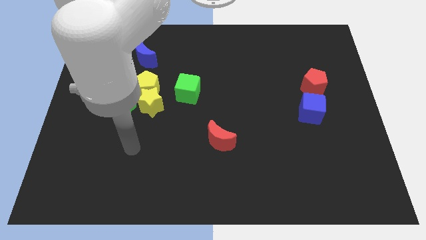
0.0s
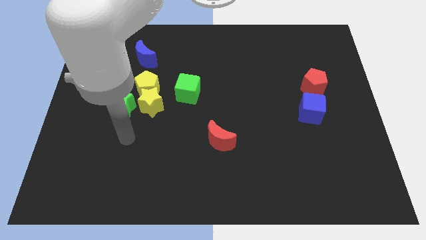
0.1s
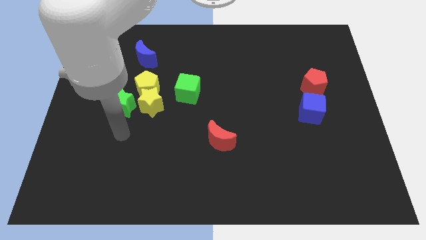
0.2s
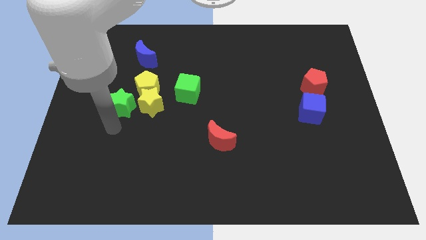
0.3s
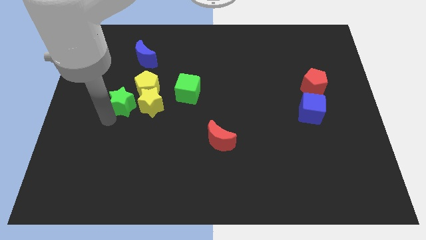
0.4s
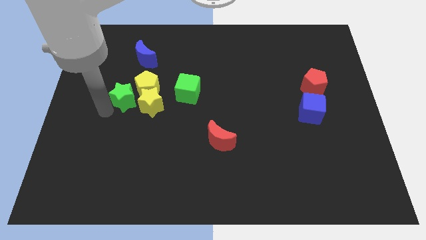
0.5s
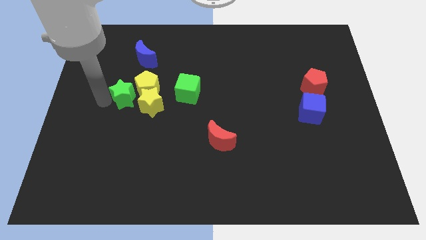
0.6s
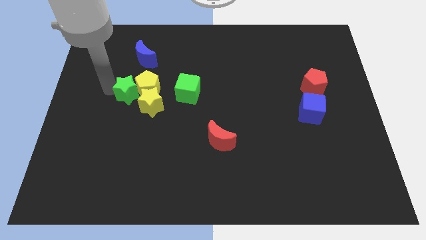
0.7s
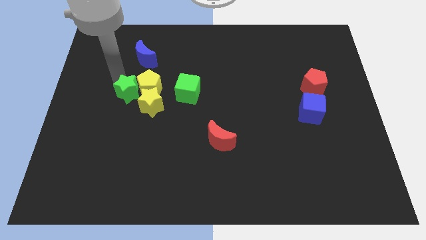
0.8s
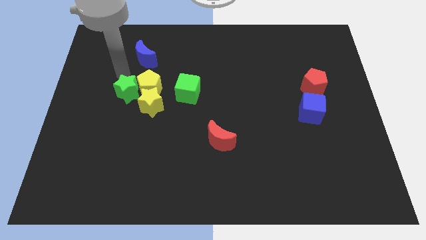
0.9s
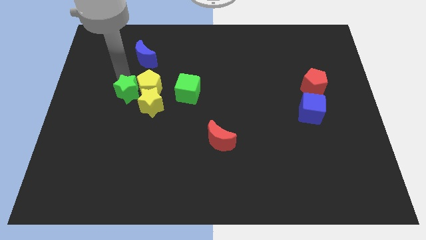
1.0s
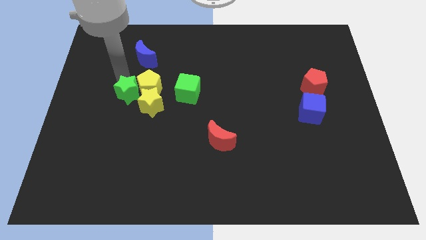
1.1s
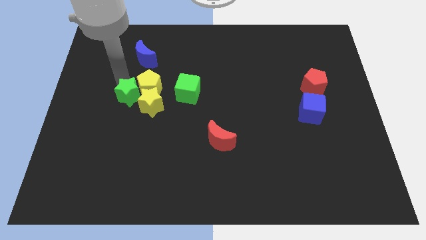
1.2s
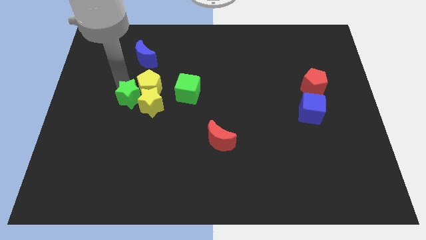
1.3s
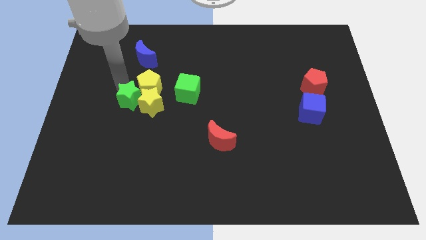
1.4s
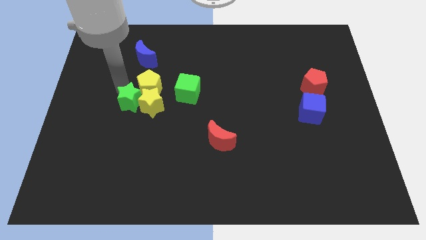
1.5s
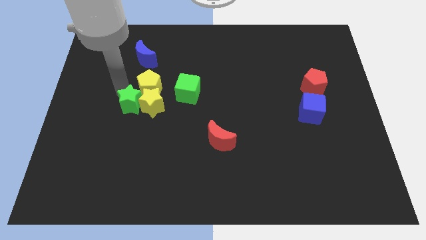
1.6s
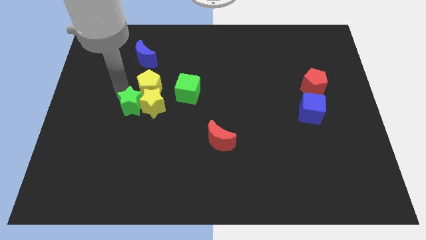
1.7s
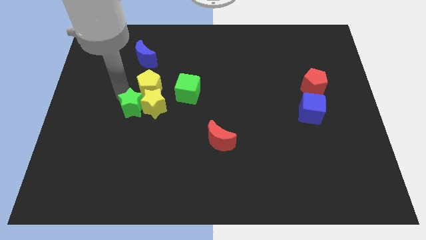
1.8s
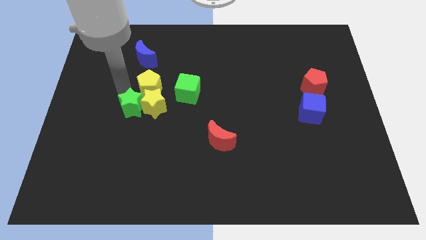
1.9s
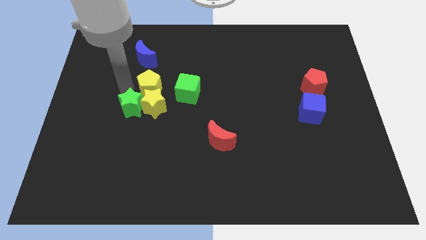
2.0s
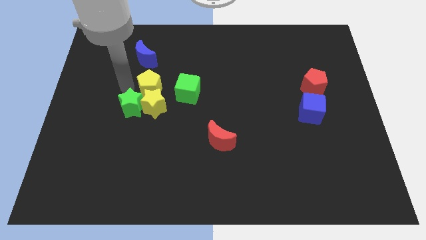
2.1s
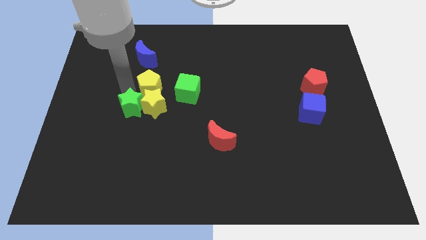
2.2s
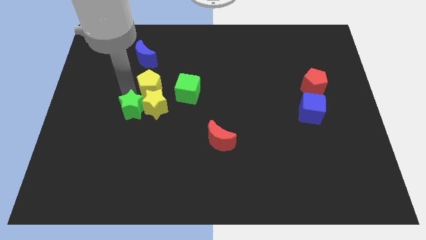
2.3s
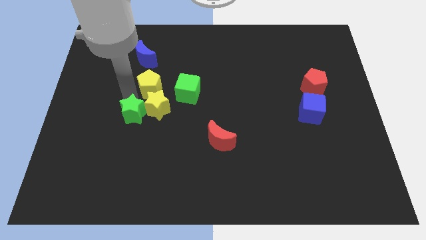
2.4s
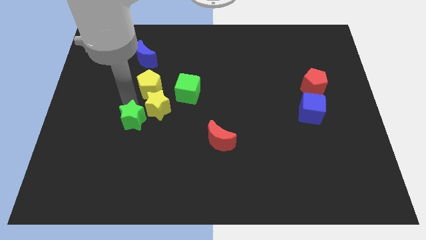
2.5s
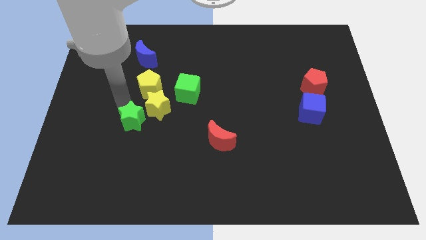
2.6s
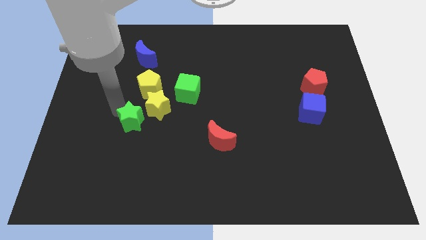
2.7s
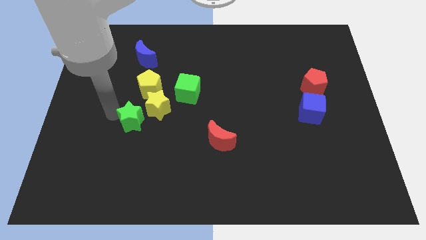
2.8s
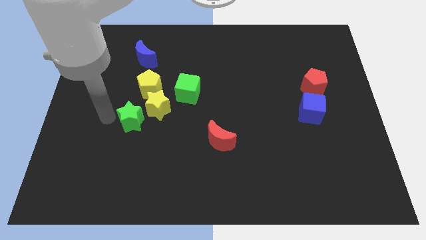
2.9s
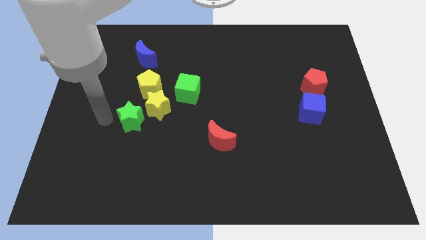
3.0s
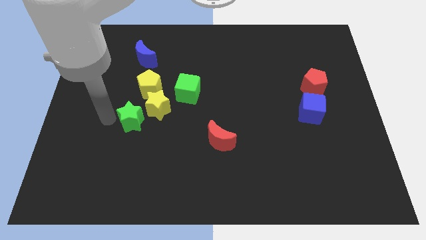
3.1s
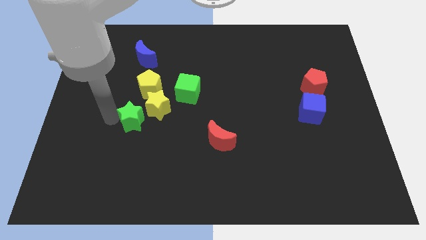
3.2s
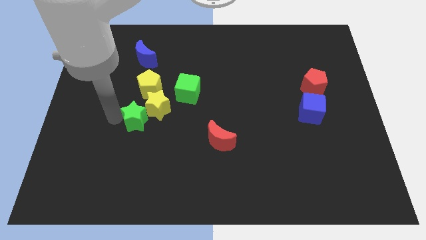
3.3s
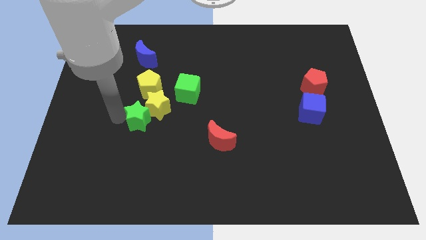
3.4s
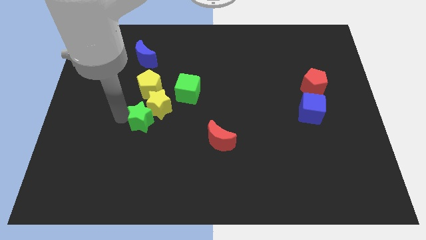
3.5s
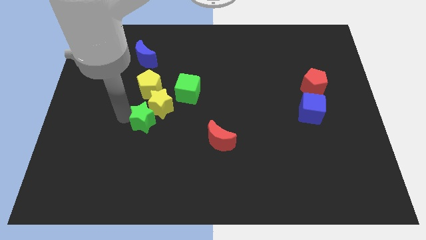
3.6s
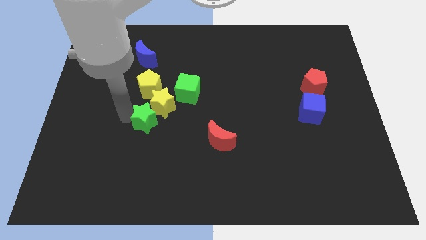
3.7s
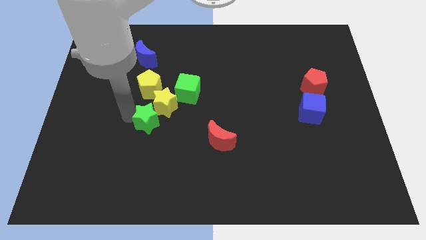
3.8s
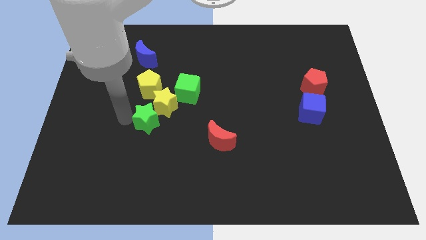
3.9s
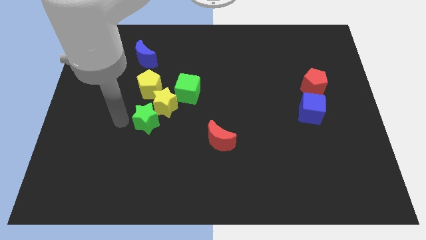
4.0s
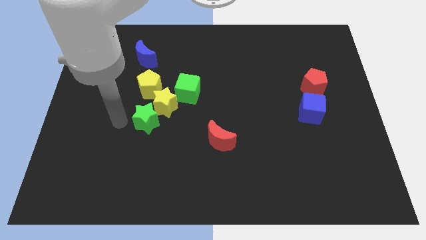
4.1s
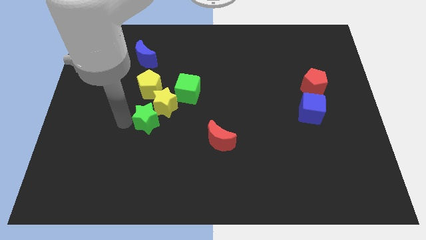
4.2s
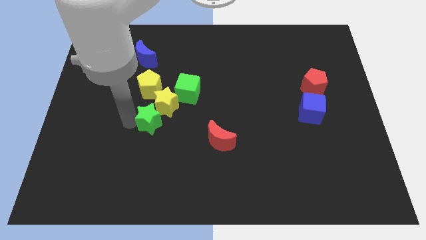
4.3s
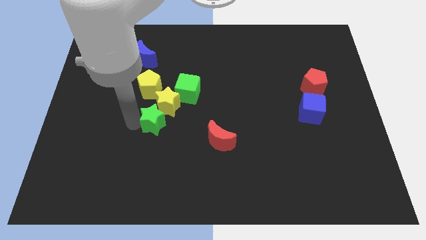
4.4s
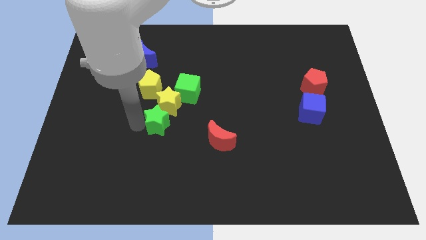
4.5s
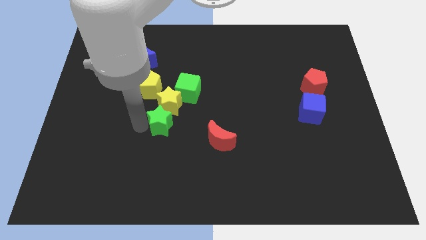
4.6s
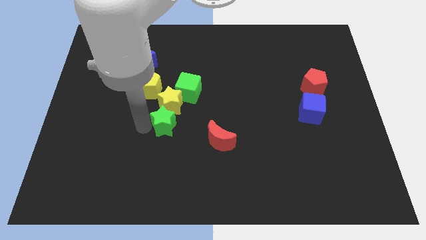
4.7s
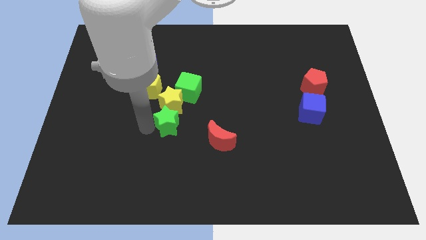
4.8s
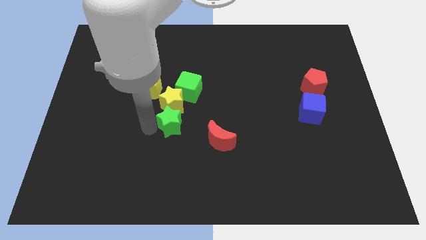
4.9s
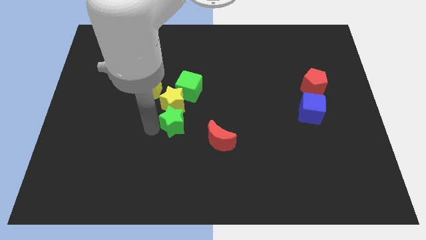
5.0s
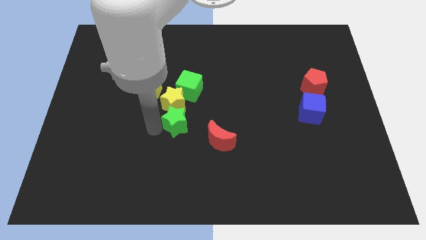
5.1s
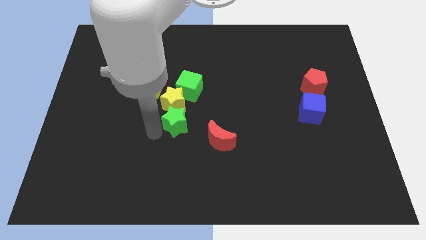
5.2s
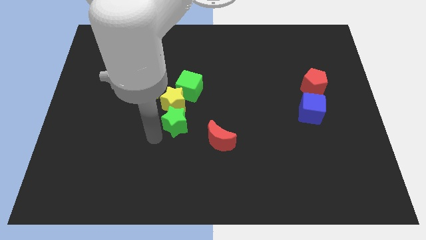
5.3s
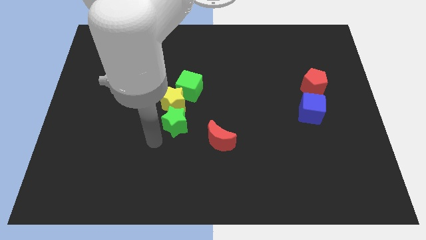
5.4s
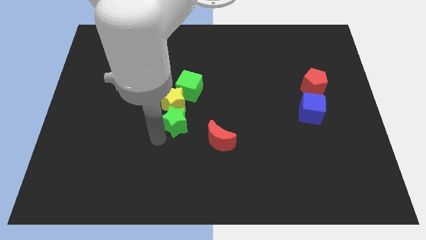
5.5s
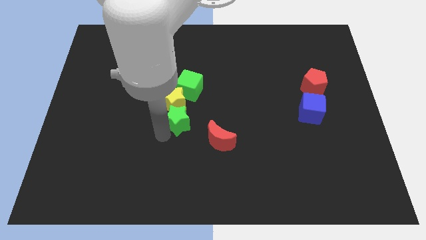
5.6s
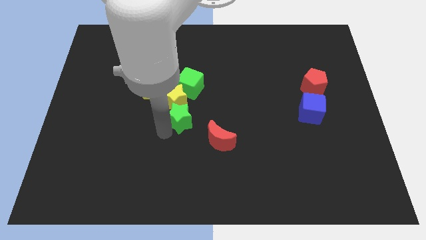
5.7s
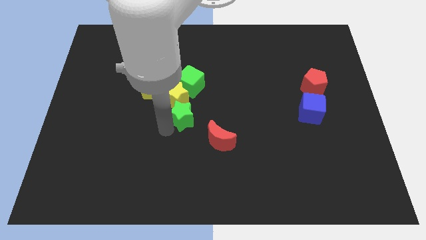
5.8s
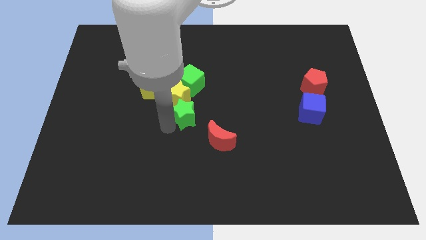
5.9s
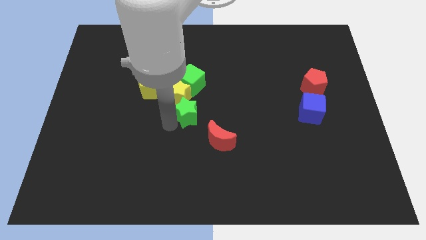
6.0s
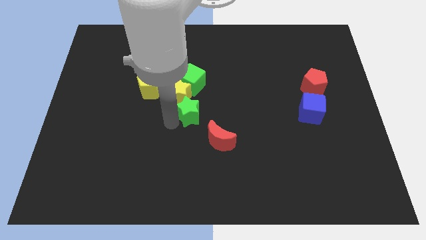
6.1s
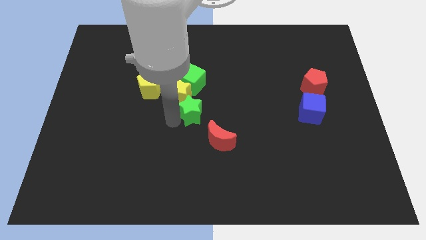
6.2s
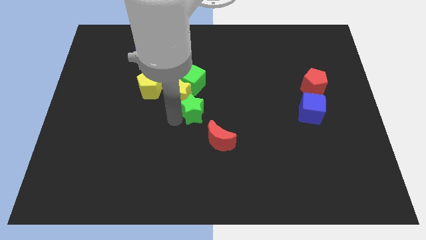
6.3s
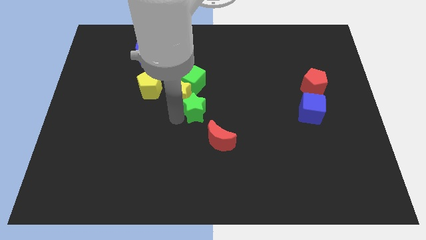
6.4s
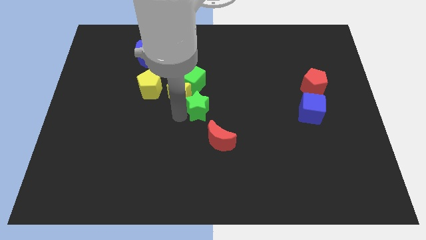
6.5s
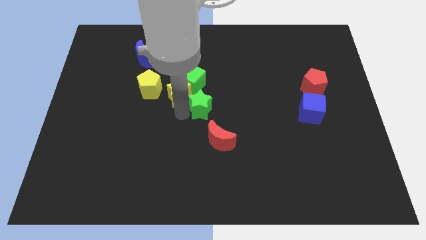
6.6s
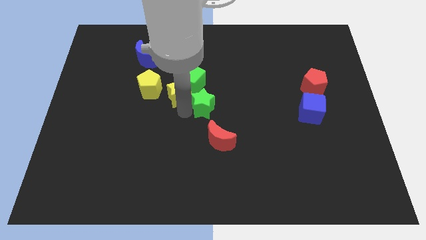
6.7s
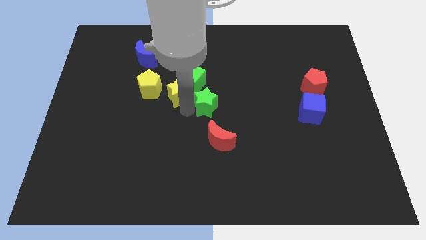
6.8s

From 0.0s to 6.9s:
push the green star right

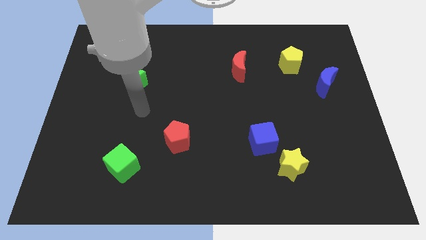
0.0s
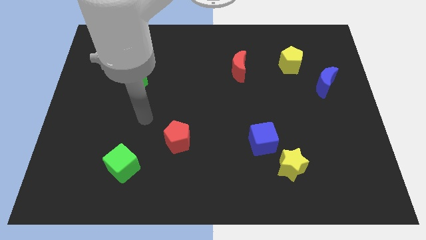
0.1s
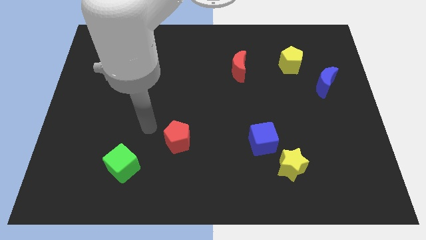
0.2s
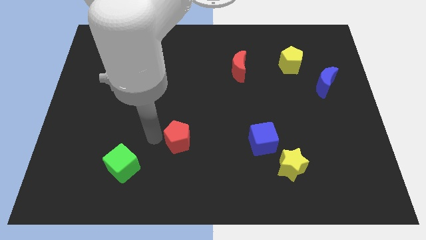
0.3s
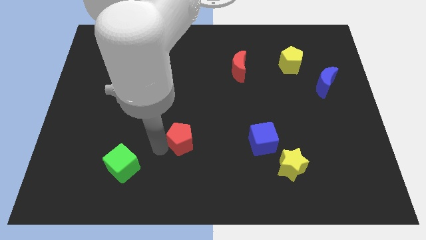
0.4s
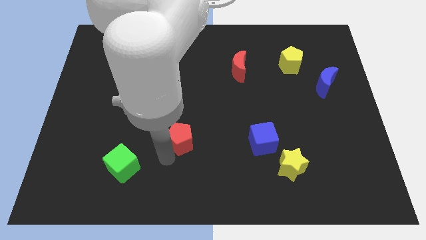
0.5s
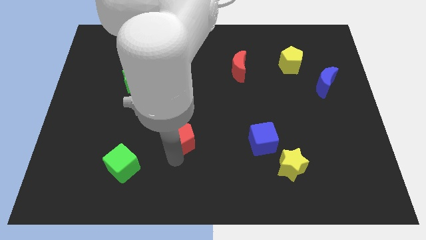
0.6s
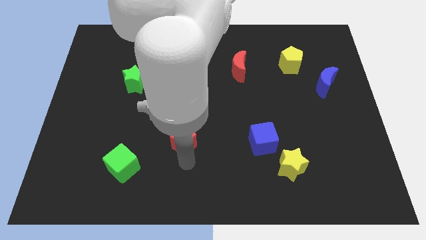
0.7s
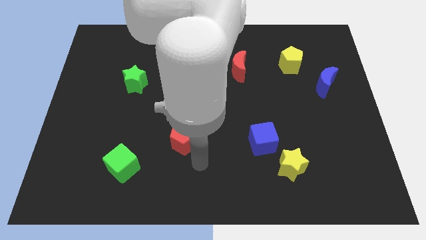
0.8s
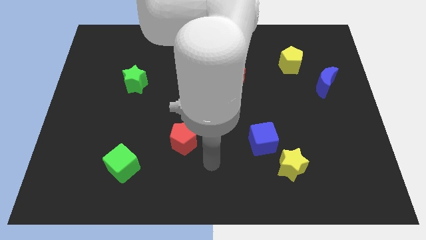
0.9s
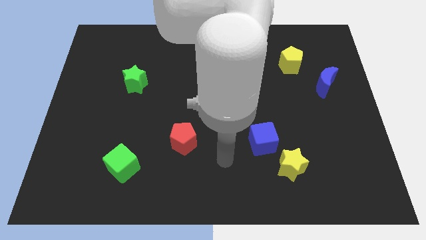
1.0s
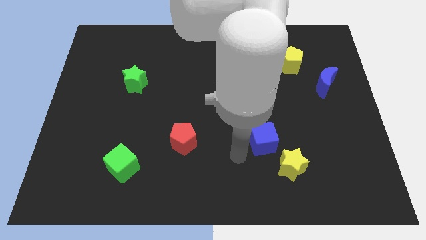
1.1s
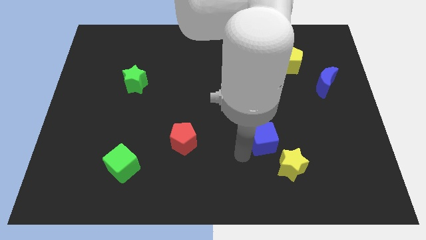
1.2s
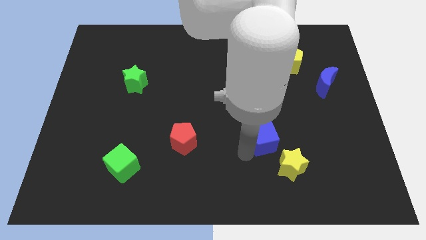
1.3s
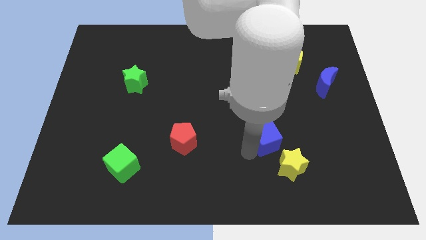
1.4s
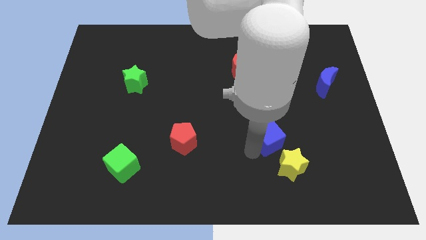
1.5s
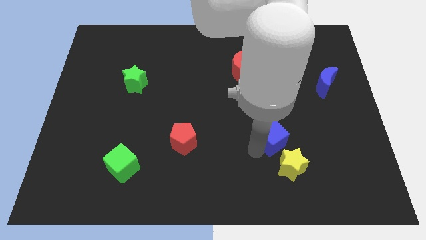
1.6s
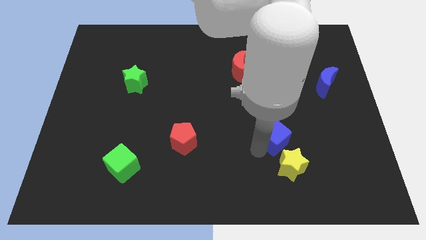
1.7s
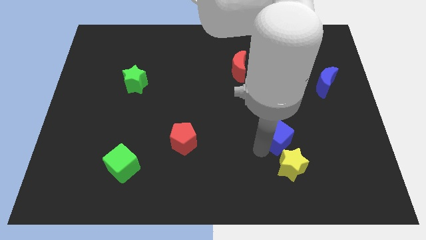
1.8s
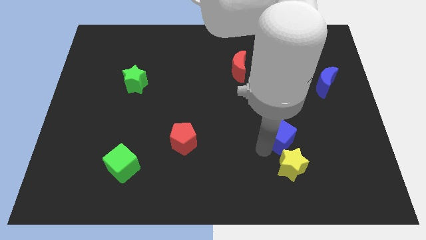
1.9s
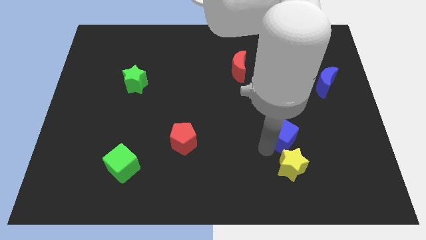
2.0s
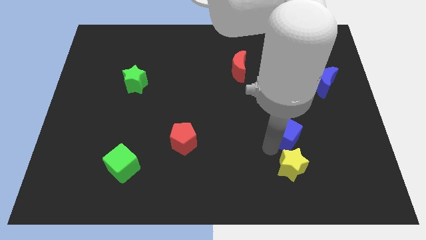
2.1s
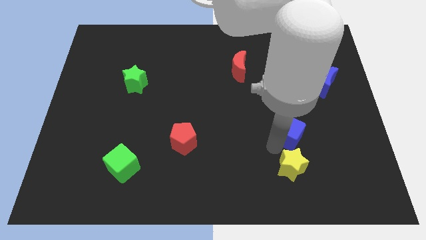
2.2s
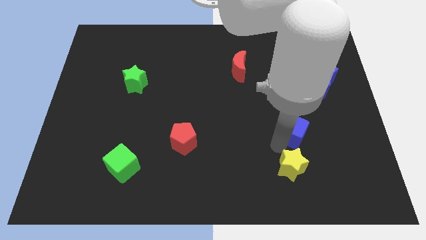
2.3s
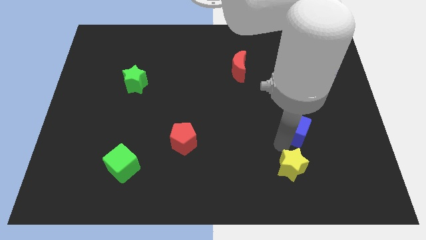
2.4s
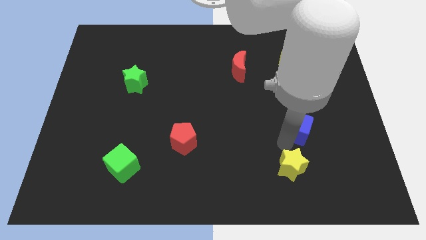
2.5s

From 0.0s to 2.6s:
move the blue cube upwards and to the right slightly
